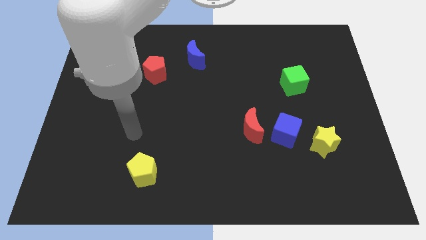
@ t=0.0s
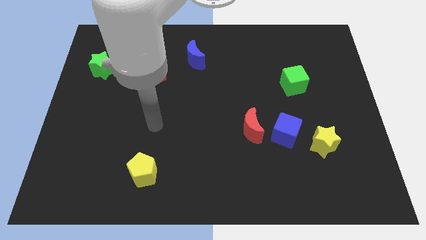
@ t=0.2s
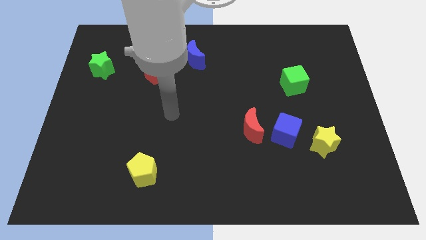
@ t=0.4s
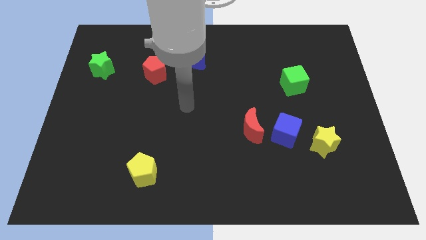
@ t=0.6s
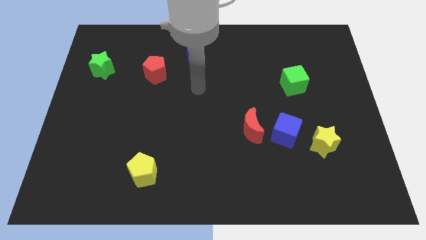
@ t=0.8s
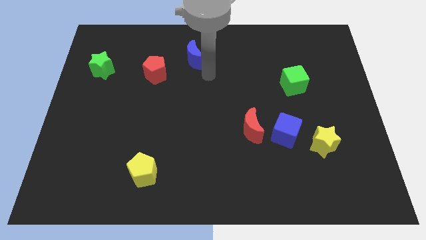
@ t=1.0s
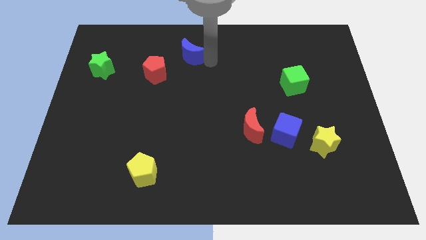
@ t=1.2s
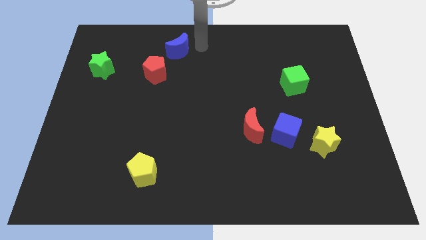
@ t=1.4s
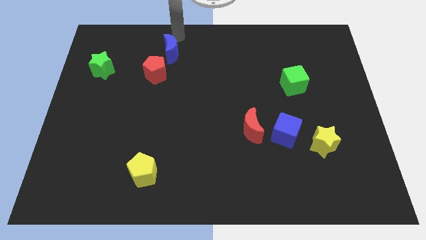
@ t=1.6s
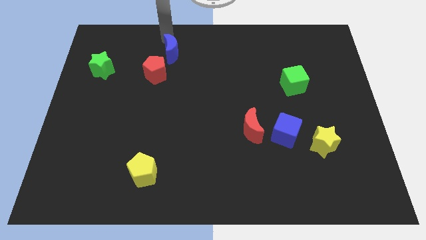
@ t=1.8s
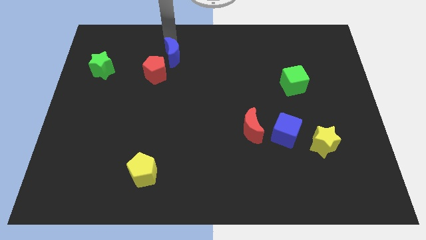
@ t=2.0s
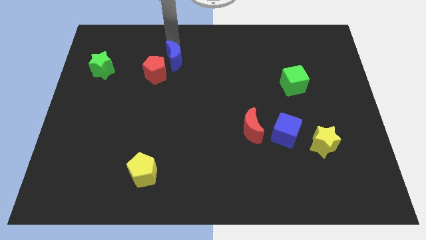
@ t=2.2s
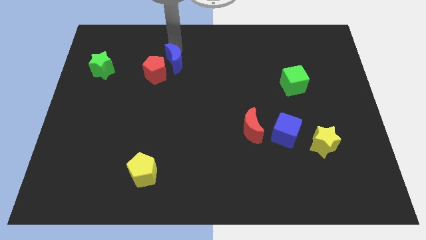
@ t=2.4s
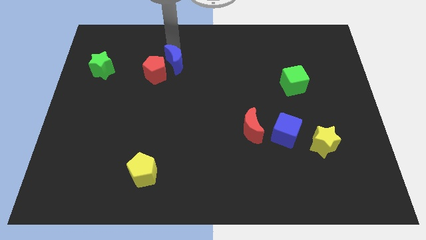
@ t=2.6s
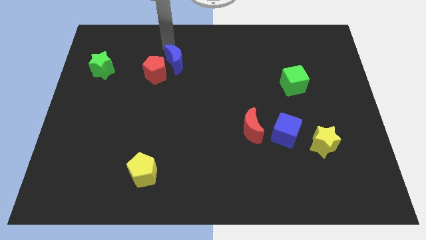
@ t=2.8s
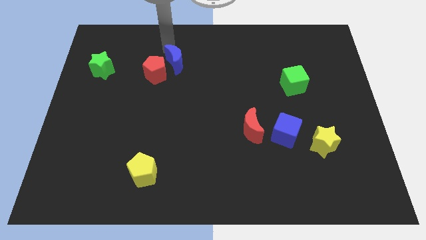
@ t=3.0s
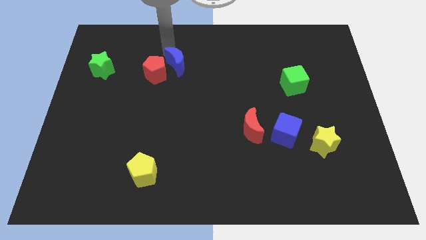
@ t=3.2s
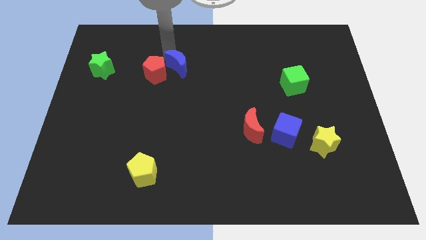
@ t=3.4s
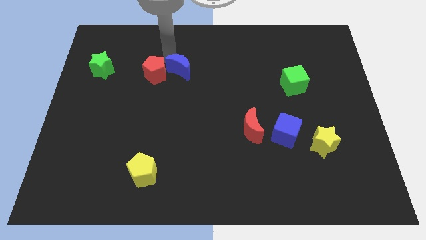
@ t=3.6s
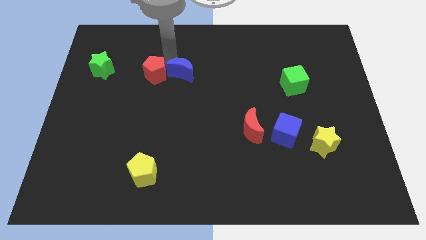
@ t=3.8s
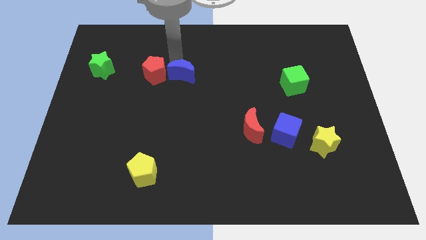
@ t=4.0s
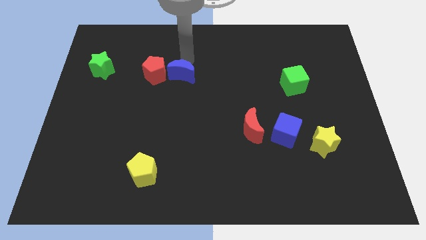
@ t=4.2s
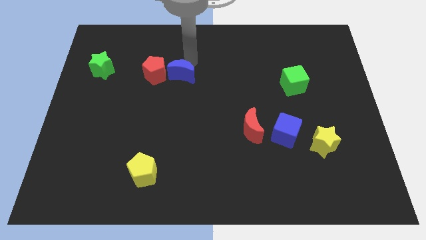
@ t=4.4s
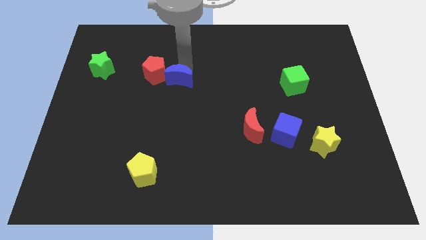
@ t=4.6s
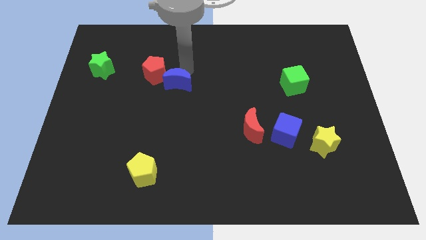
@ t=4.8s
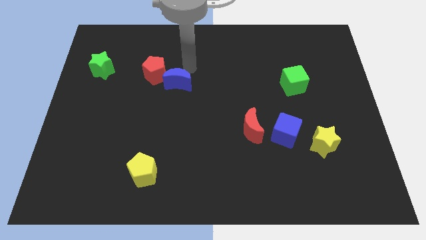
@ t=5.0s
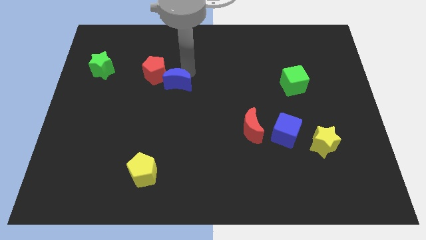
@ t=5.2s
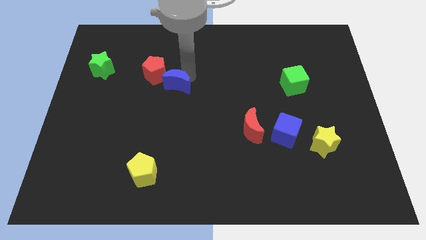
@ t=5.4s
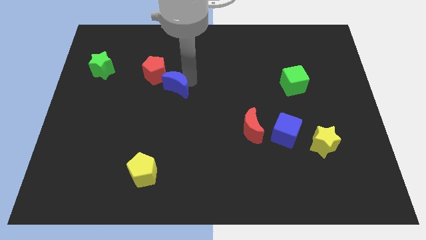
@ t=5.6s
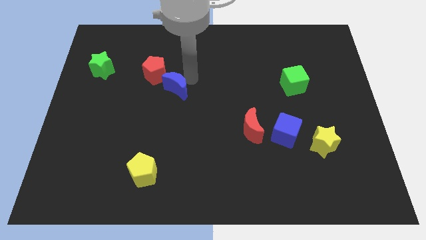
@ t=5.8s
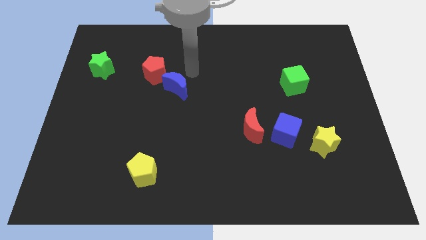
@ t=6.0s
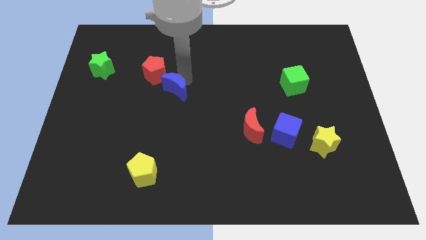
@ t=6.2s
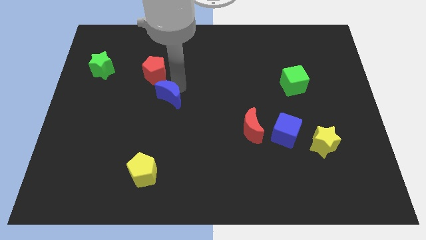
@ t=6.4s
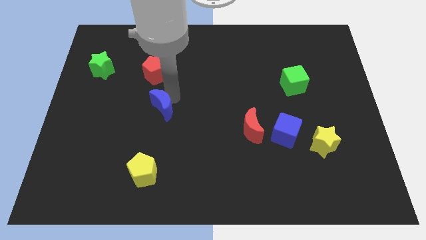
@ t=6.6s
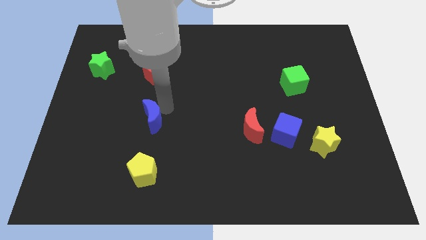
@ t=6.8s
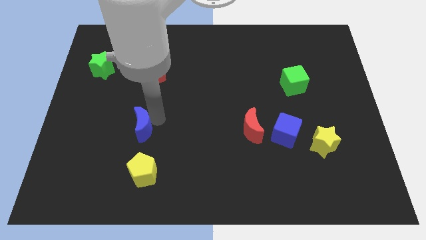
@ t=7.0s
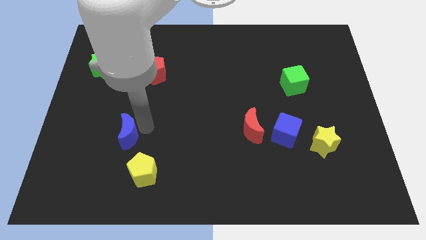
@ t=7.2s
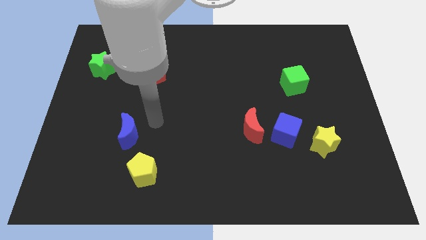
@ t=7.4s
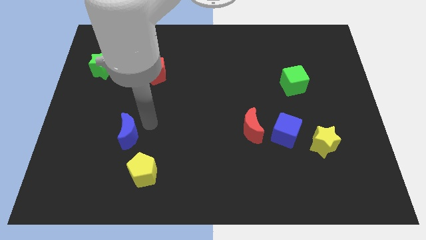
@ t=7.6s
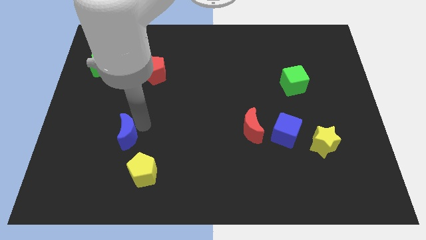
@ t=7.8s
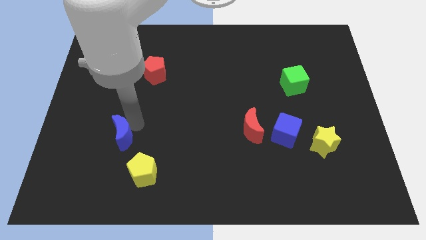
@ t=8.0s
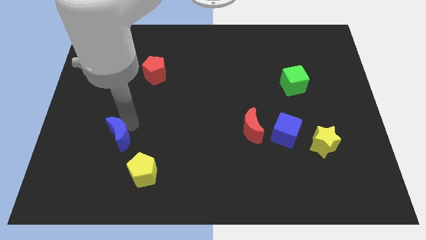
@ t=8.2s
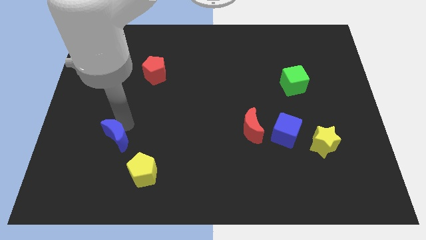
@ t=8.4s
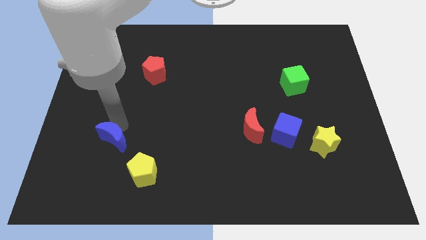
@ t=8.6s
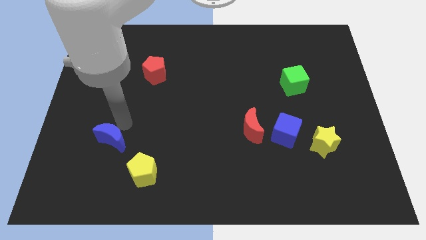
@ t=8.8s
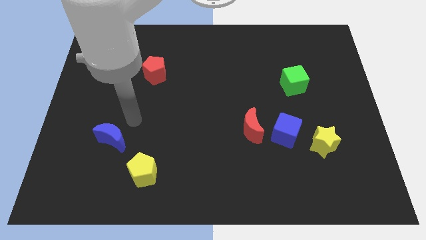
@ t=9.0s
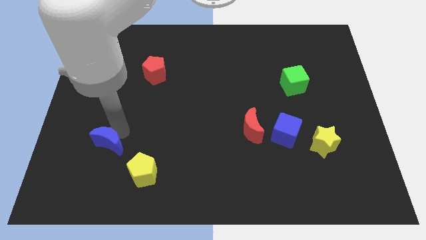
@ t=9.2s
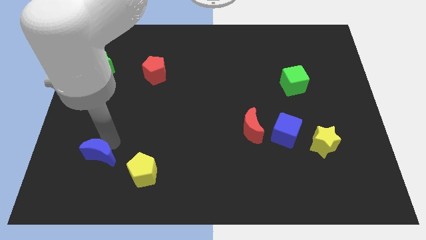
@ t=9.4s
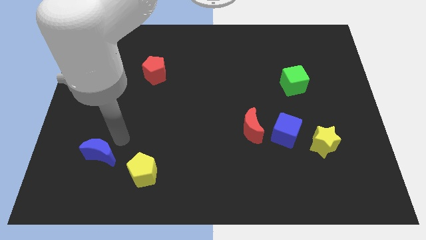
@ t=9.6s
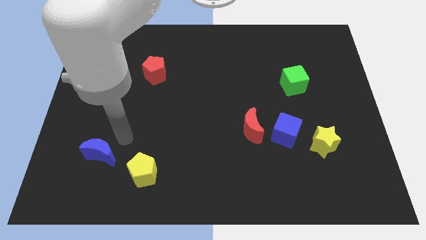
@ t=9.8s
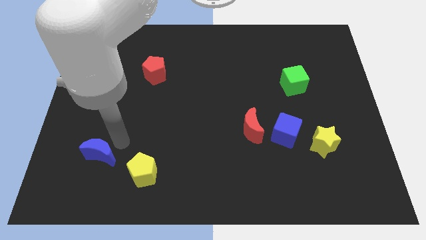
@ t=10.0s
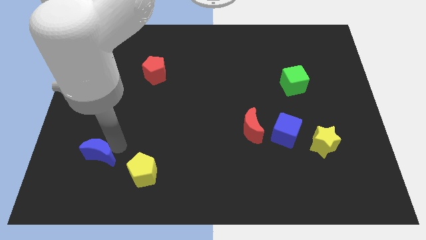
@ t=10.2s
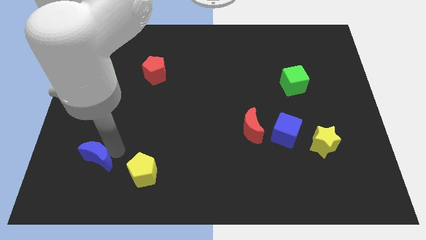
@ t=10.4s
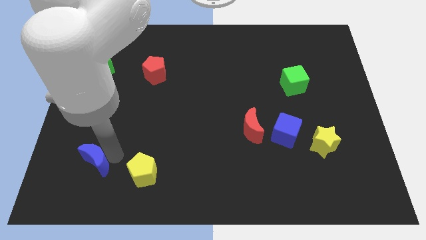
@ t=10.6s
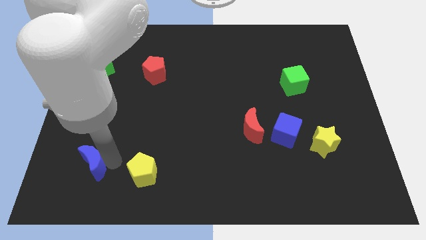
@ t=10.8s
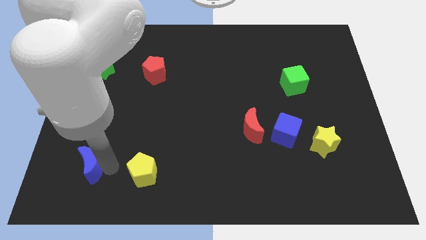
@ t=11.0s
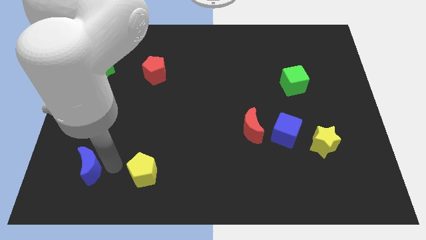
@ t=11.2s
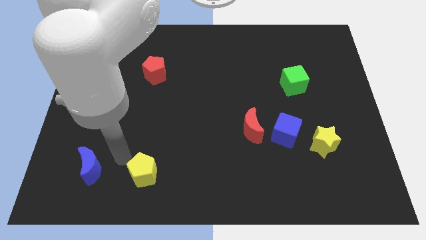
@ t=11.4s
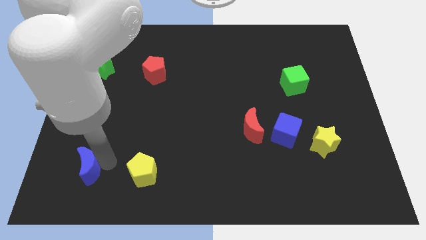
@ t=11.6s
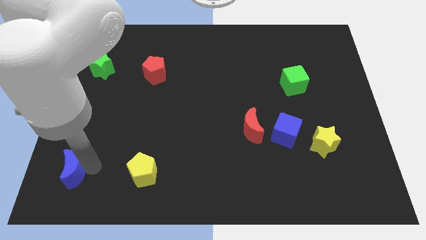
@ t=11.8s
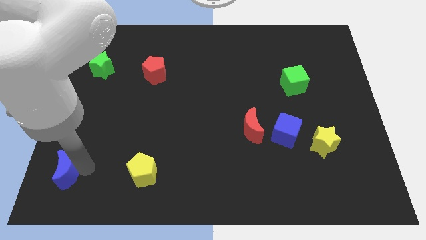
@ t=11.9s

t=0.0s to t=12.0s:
slide the blue moon to the bottom left

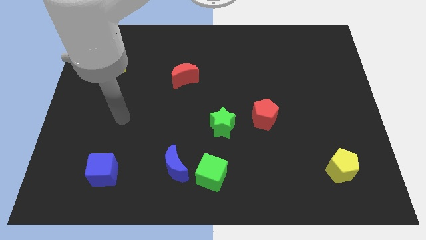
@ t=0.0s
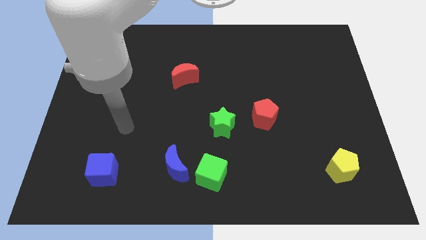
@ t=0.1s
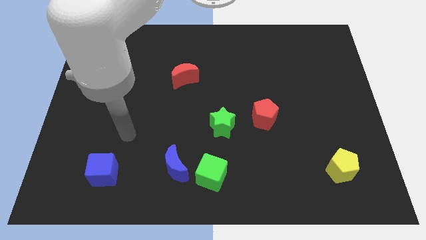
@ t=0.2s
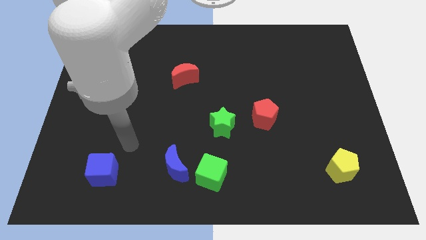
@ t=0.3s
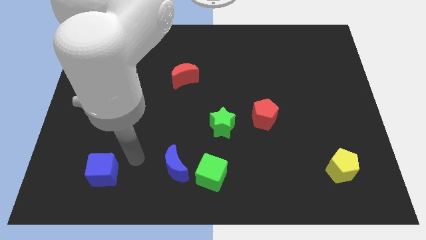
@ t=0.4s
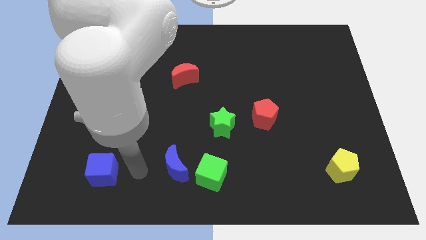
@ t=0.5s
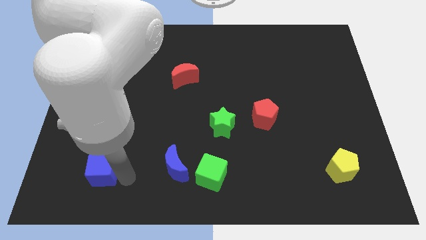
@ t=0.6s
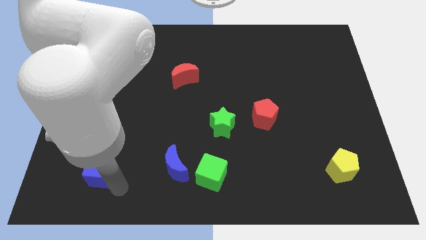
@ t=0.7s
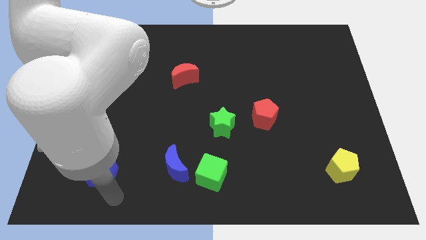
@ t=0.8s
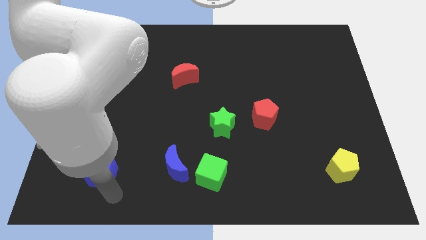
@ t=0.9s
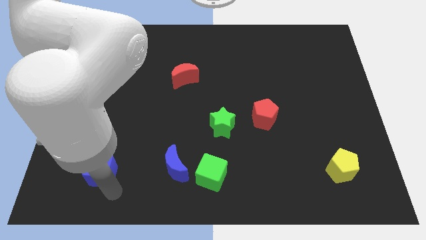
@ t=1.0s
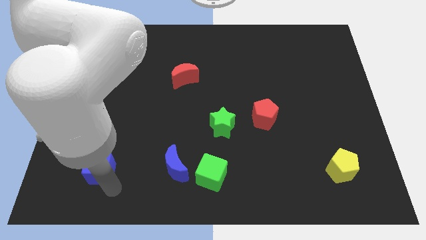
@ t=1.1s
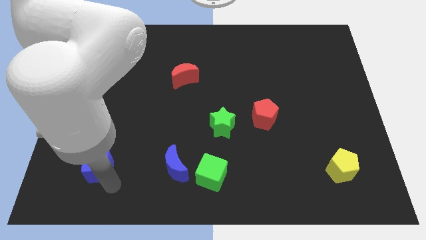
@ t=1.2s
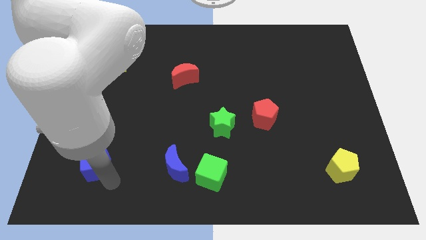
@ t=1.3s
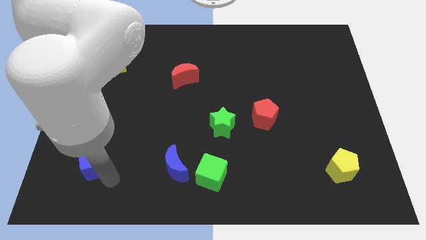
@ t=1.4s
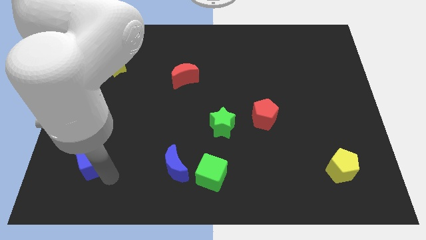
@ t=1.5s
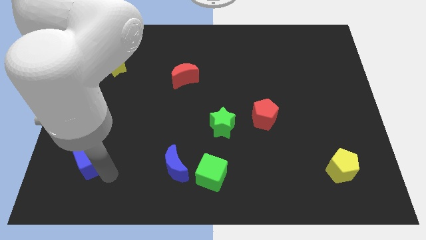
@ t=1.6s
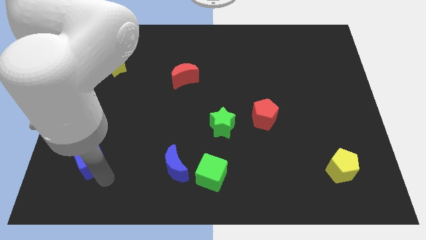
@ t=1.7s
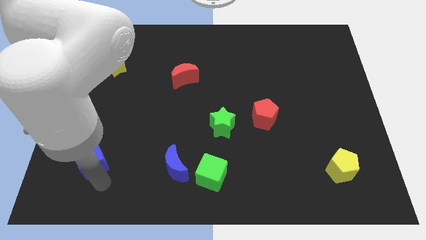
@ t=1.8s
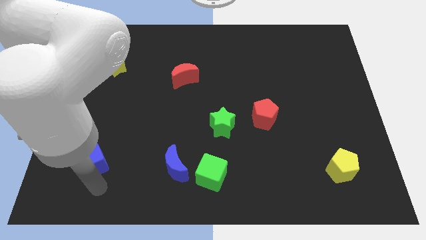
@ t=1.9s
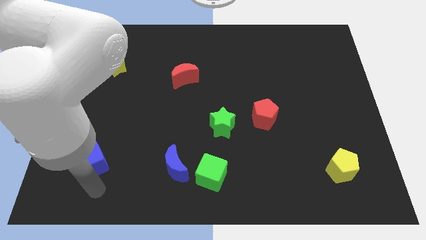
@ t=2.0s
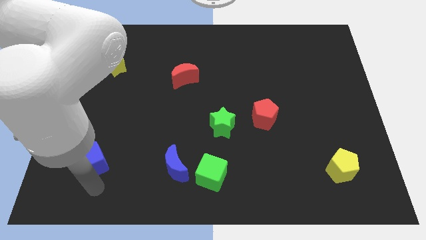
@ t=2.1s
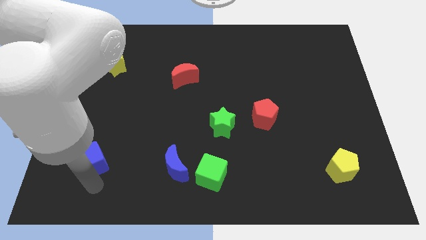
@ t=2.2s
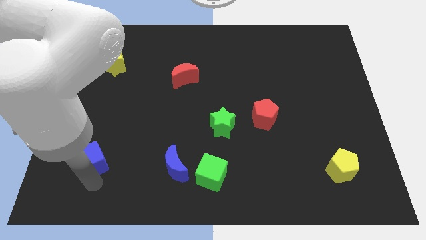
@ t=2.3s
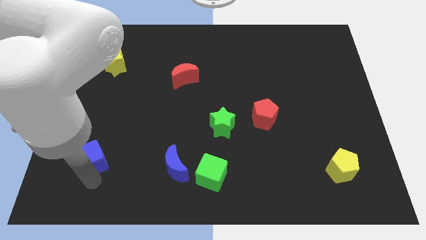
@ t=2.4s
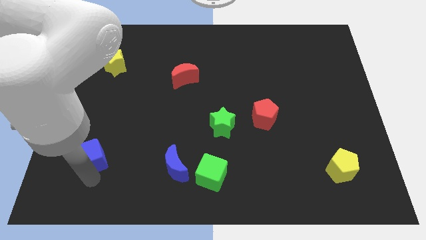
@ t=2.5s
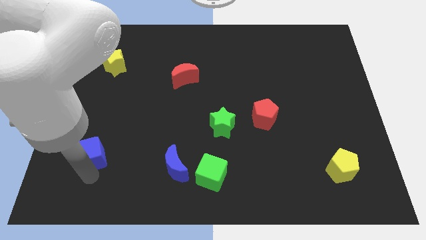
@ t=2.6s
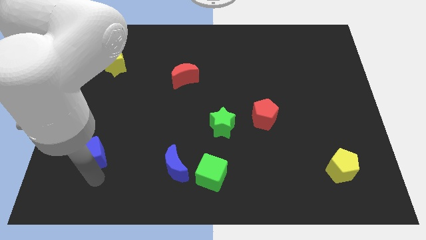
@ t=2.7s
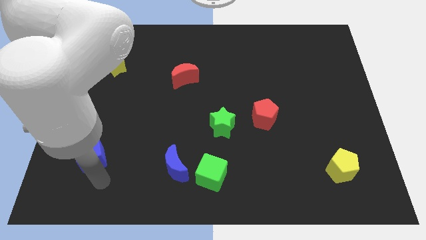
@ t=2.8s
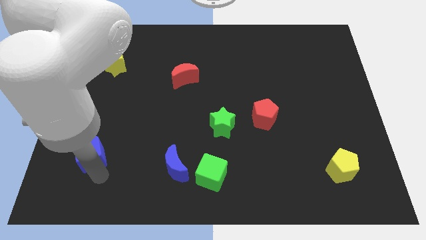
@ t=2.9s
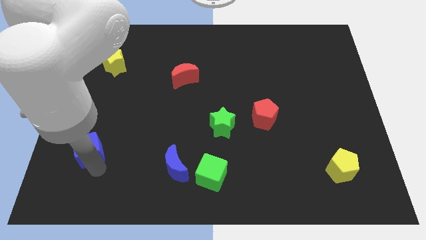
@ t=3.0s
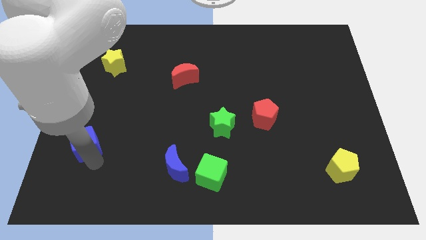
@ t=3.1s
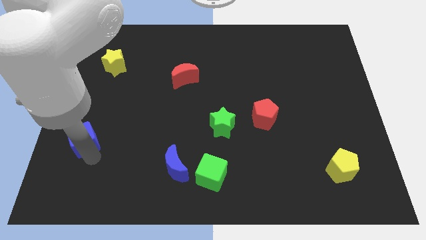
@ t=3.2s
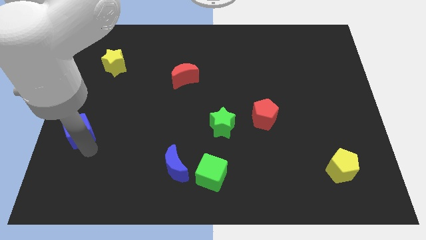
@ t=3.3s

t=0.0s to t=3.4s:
slide the blue cube to the center left
